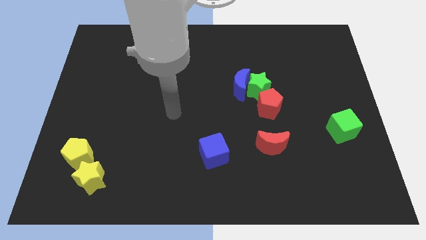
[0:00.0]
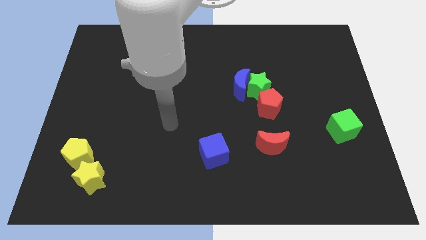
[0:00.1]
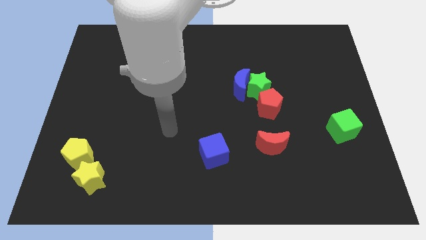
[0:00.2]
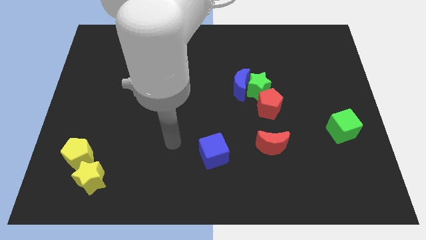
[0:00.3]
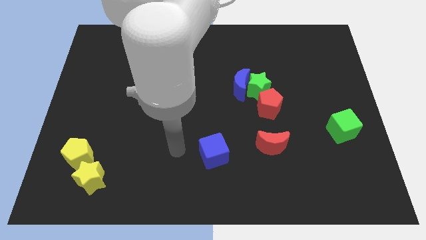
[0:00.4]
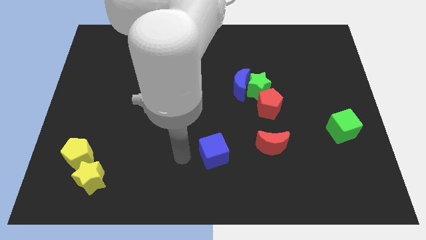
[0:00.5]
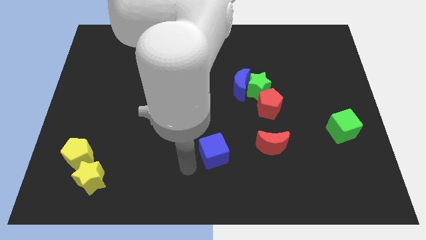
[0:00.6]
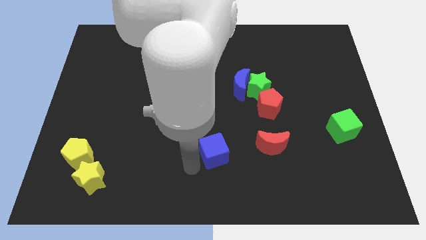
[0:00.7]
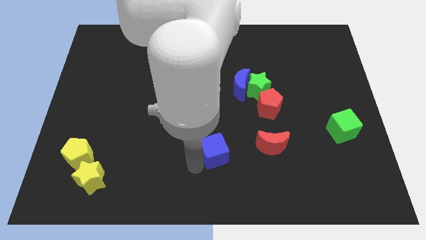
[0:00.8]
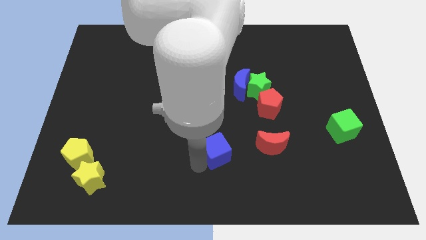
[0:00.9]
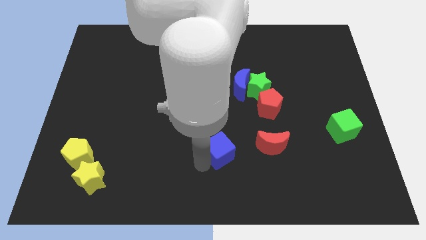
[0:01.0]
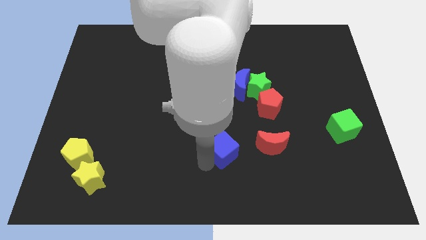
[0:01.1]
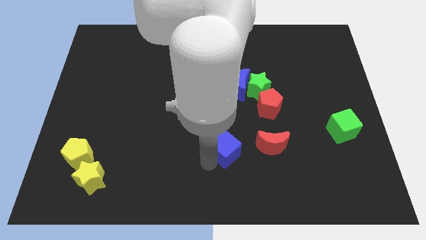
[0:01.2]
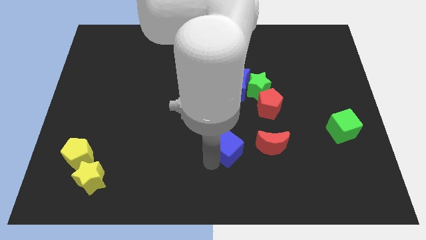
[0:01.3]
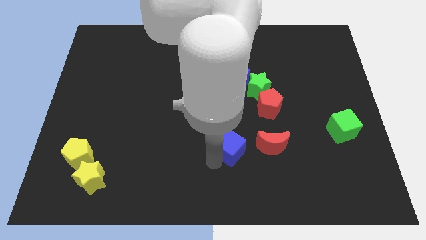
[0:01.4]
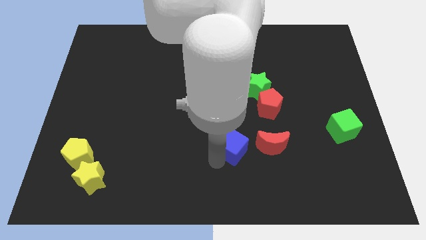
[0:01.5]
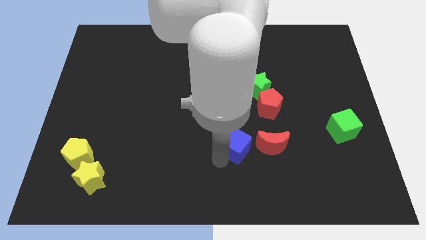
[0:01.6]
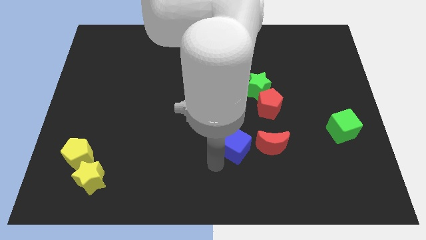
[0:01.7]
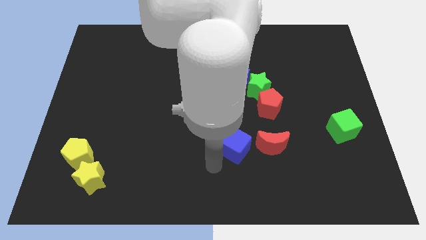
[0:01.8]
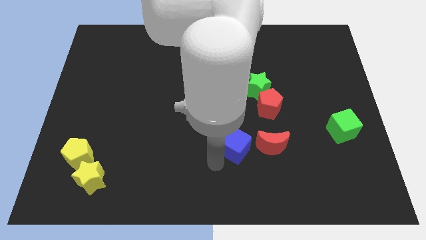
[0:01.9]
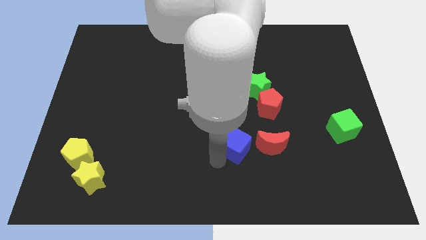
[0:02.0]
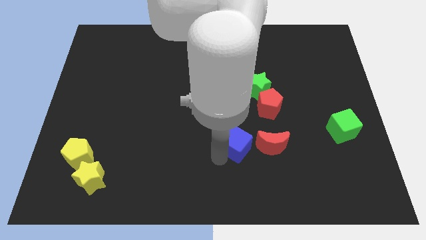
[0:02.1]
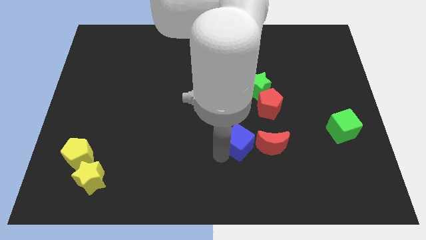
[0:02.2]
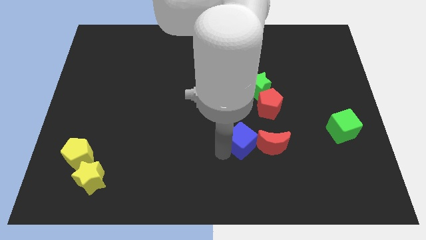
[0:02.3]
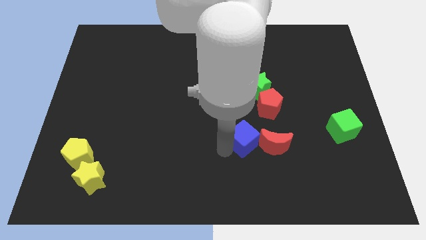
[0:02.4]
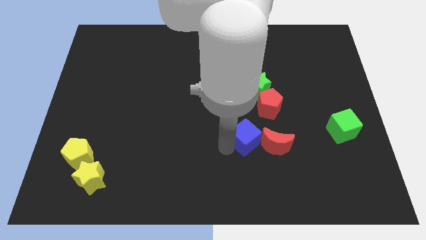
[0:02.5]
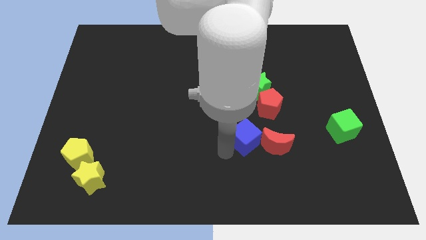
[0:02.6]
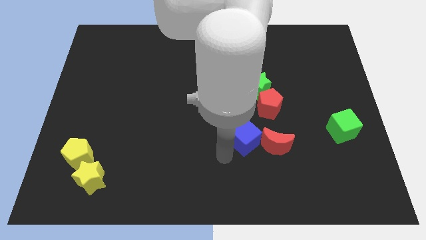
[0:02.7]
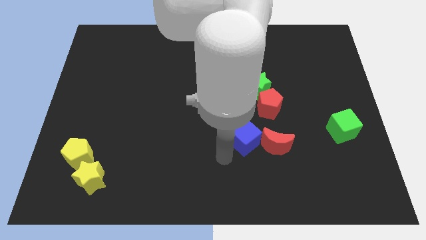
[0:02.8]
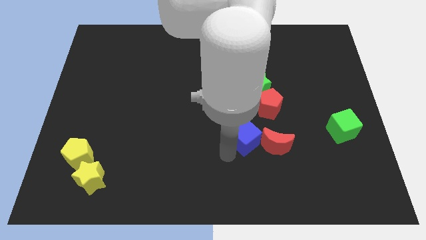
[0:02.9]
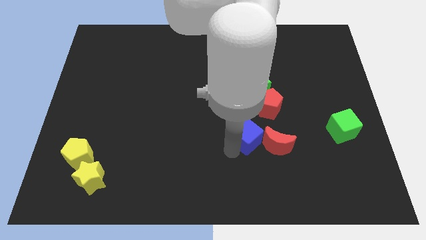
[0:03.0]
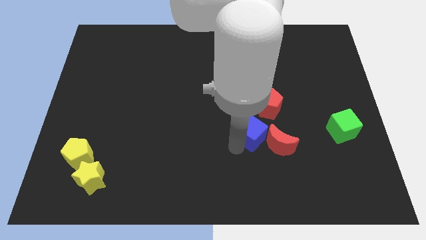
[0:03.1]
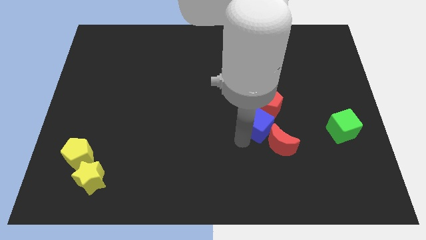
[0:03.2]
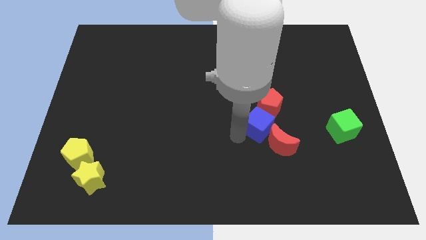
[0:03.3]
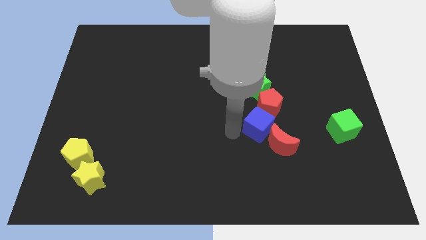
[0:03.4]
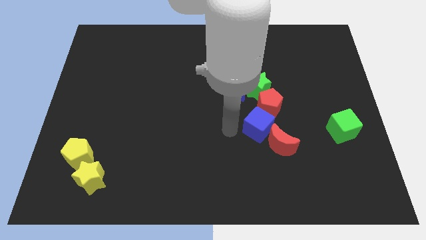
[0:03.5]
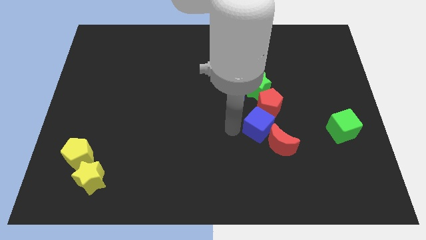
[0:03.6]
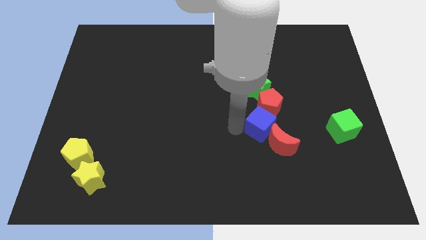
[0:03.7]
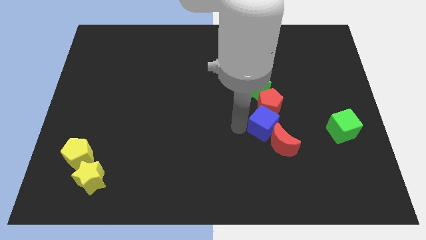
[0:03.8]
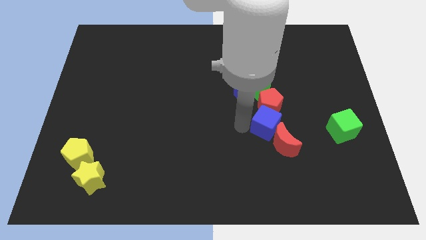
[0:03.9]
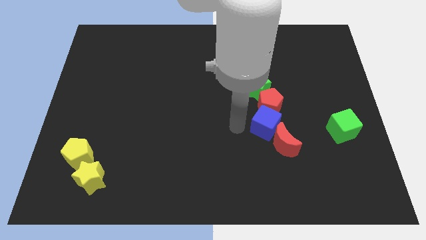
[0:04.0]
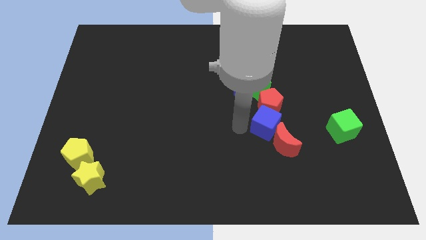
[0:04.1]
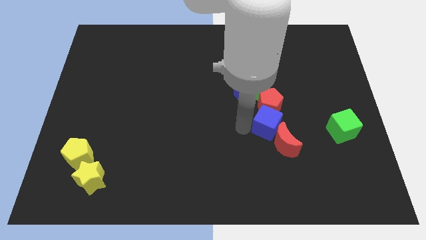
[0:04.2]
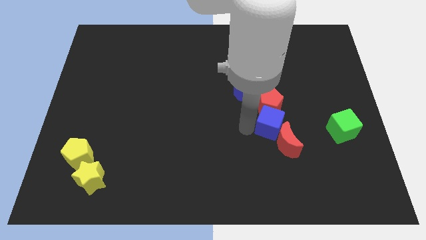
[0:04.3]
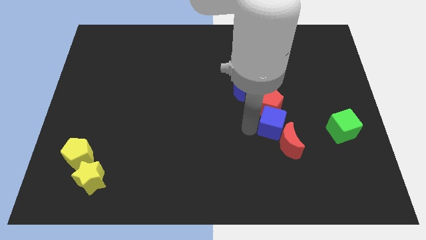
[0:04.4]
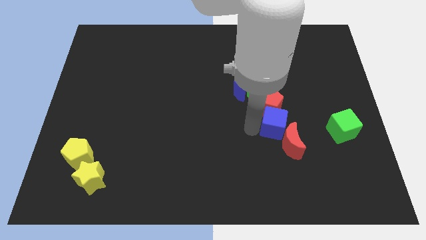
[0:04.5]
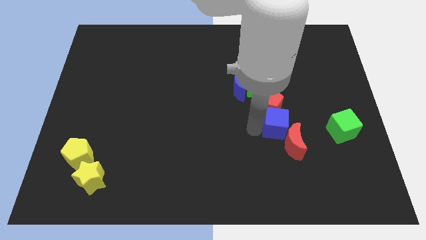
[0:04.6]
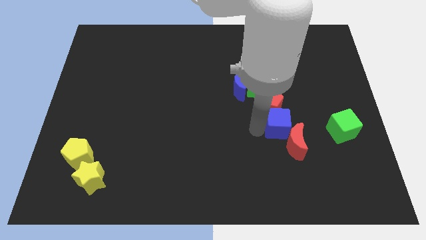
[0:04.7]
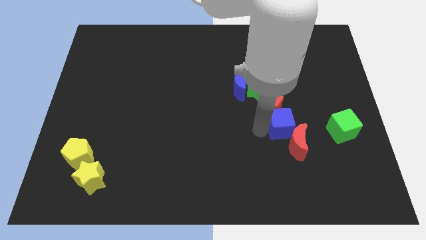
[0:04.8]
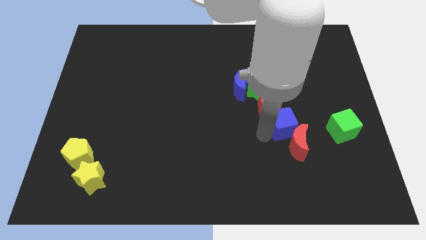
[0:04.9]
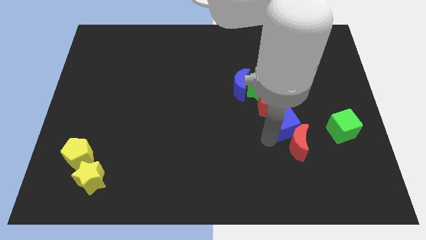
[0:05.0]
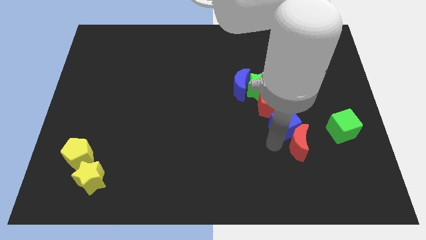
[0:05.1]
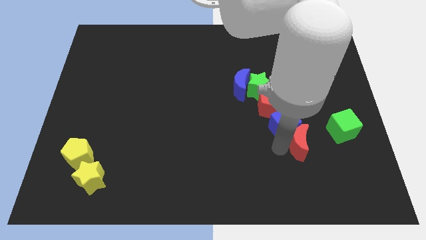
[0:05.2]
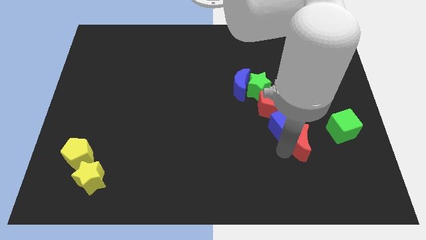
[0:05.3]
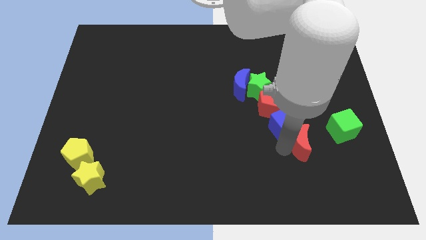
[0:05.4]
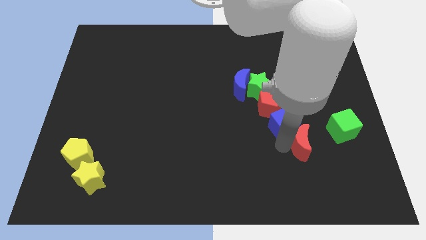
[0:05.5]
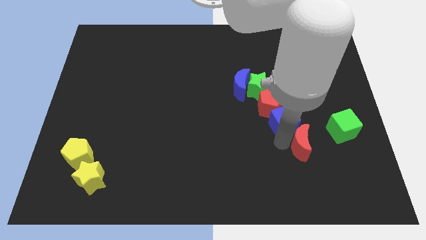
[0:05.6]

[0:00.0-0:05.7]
push the blue cube diagonally down and to the right of the green star

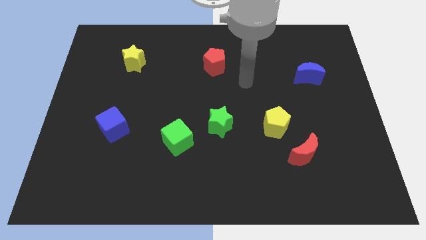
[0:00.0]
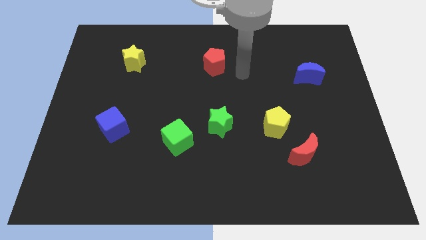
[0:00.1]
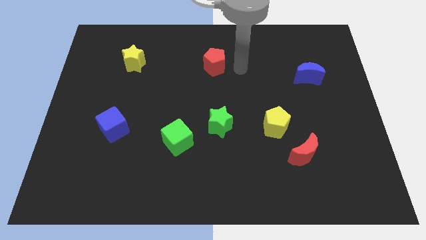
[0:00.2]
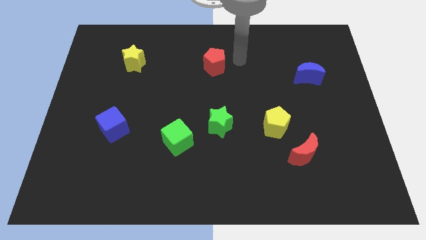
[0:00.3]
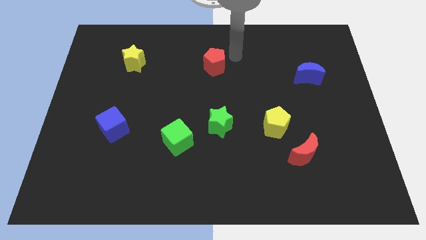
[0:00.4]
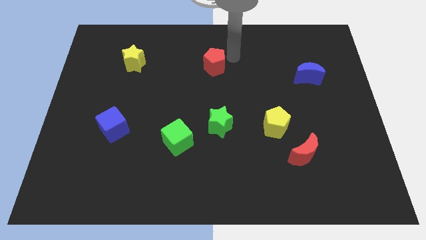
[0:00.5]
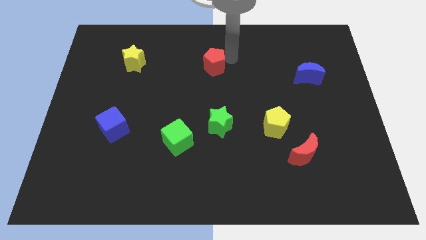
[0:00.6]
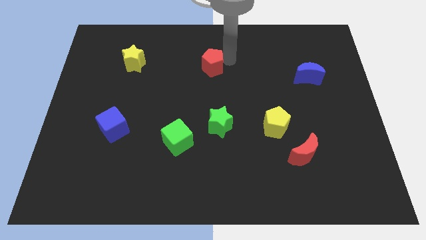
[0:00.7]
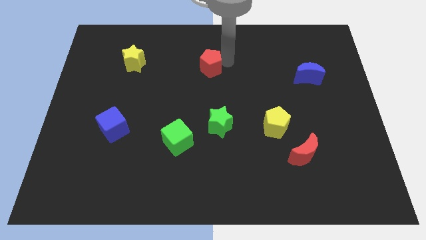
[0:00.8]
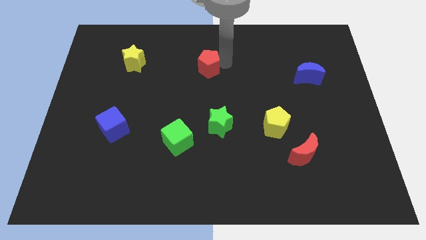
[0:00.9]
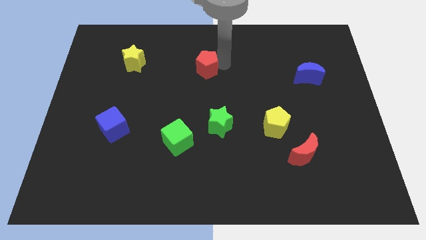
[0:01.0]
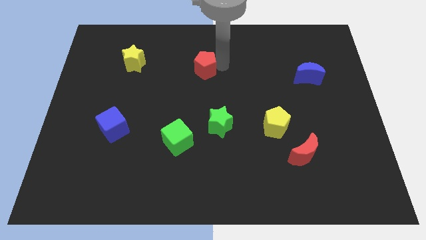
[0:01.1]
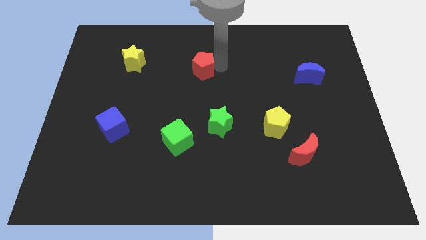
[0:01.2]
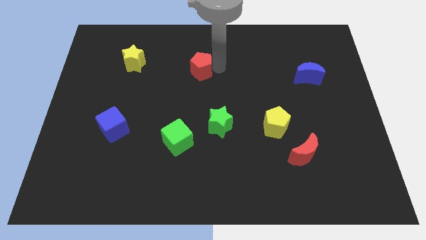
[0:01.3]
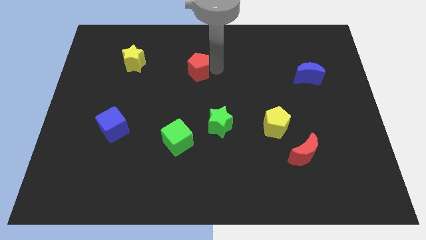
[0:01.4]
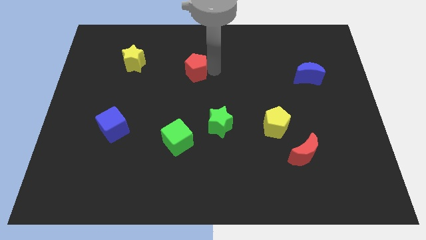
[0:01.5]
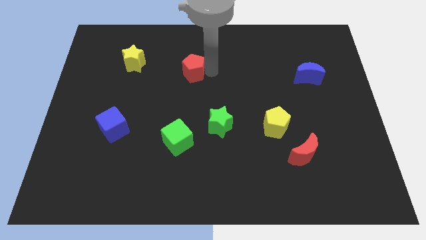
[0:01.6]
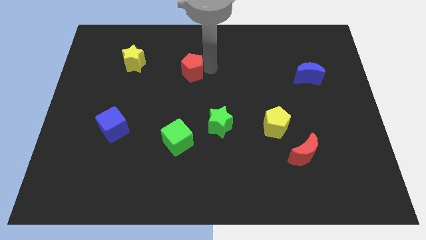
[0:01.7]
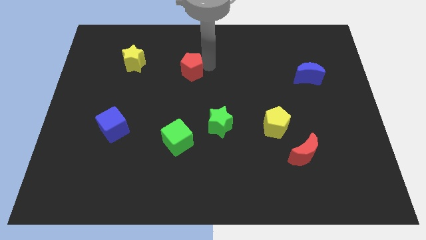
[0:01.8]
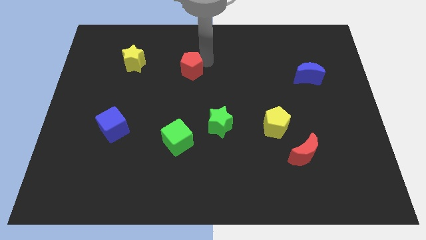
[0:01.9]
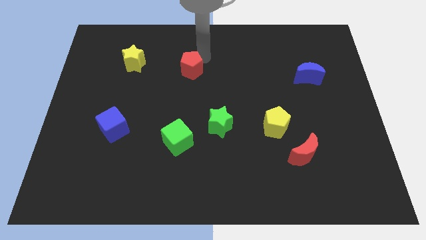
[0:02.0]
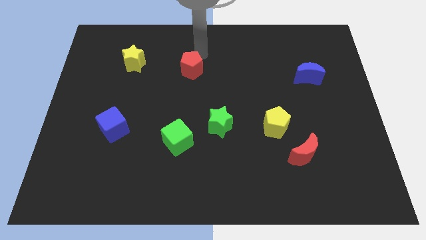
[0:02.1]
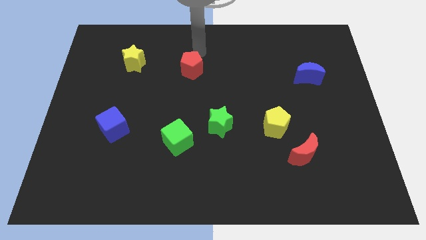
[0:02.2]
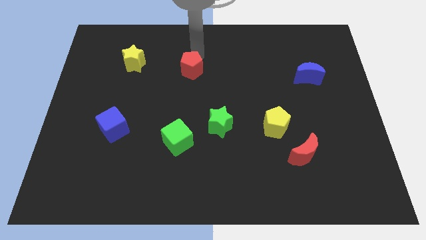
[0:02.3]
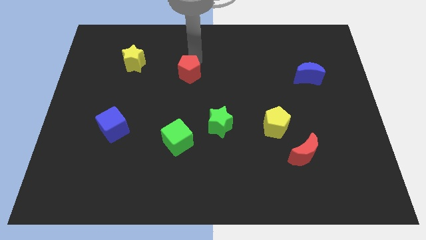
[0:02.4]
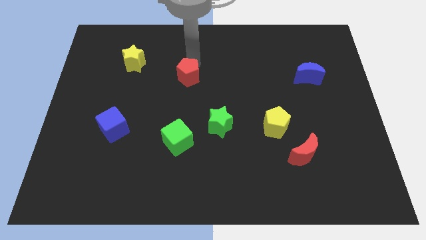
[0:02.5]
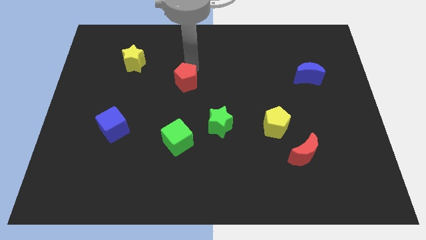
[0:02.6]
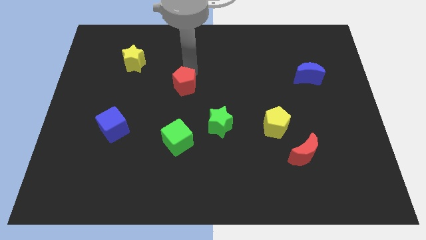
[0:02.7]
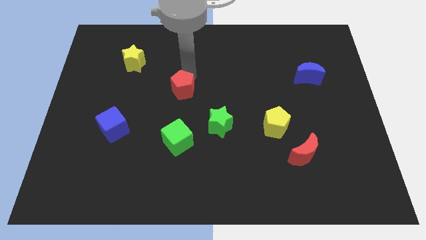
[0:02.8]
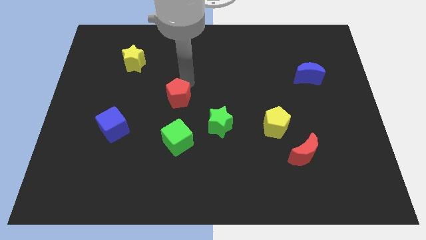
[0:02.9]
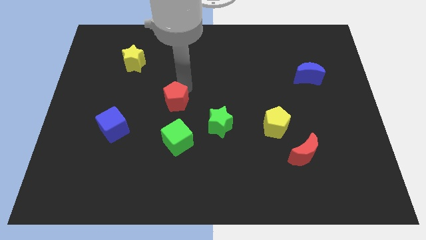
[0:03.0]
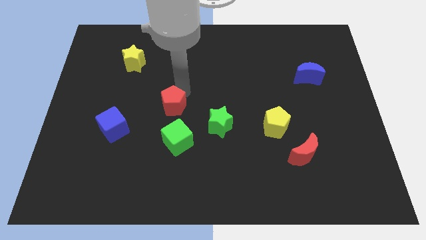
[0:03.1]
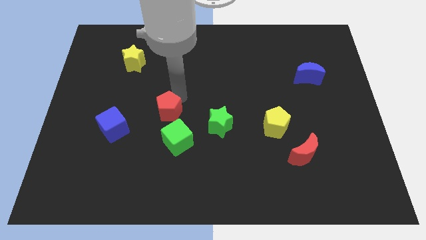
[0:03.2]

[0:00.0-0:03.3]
move the red pentagon to the top left side of the green cube
